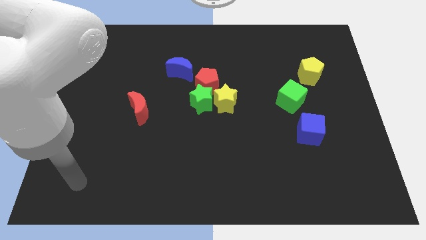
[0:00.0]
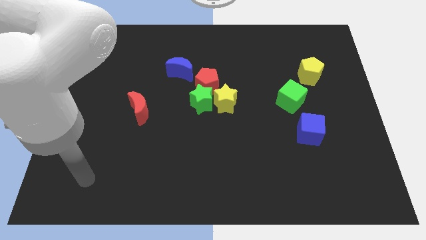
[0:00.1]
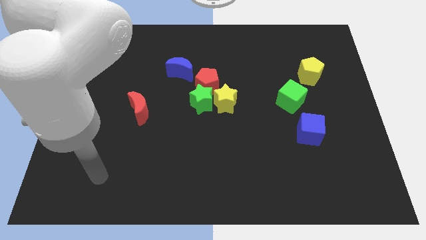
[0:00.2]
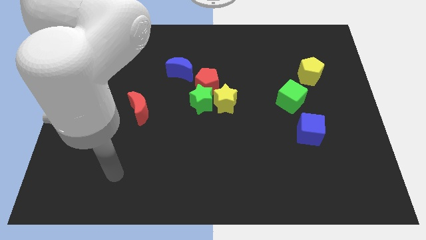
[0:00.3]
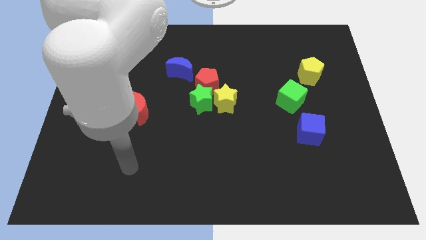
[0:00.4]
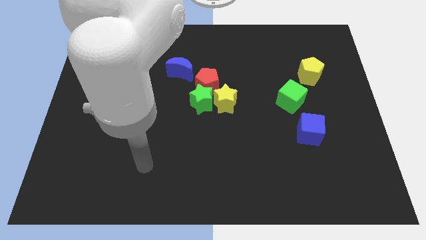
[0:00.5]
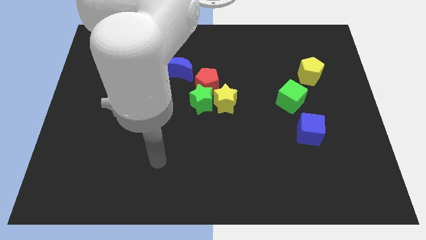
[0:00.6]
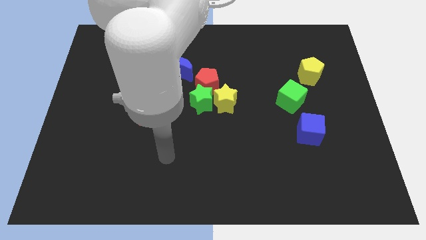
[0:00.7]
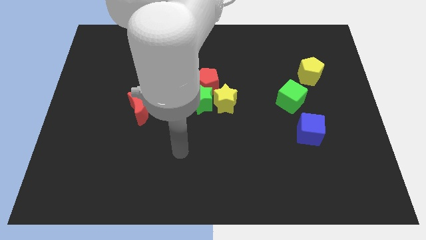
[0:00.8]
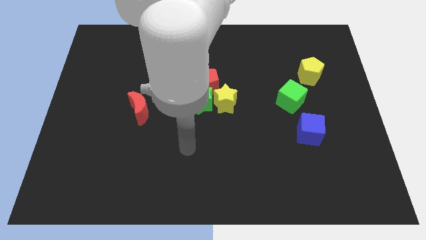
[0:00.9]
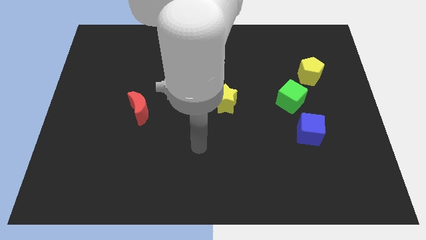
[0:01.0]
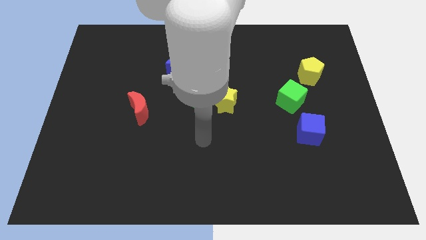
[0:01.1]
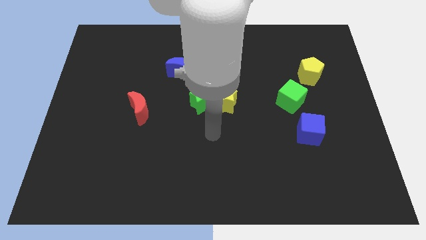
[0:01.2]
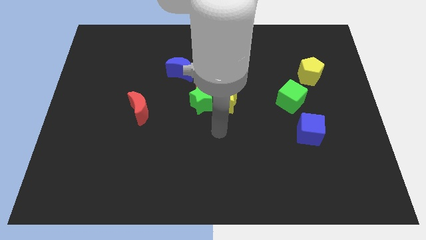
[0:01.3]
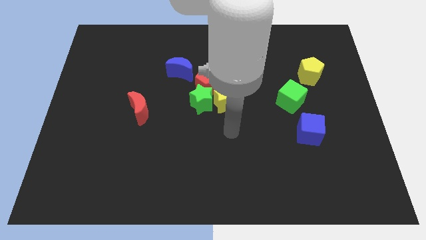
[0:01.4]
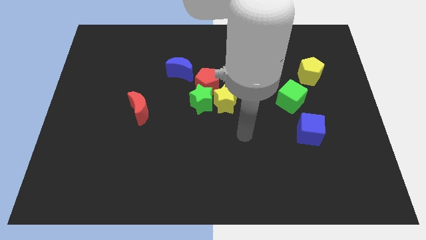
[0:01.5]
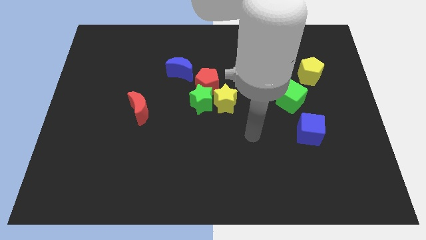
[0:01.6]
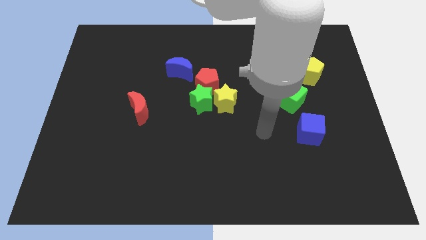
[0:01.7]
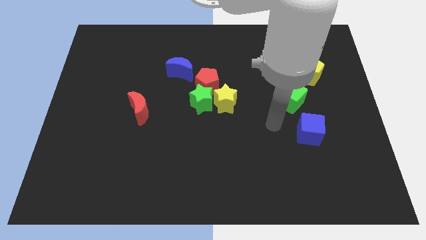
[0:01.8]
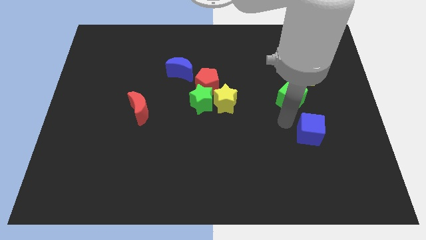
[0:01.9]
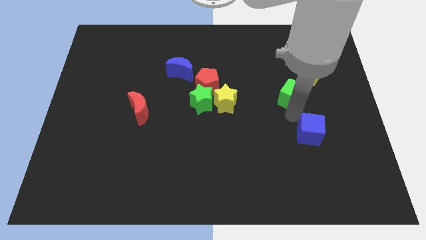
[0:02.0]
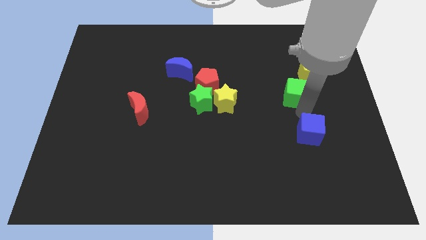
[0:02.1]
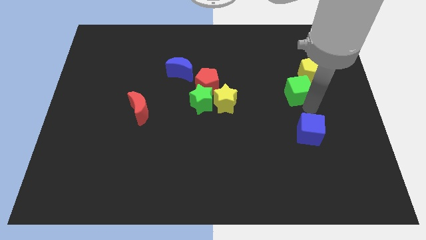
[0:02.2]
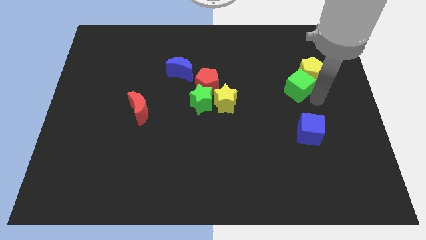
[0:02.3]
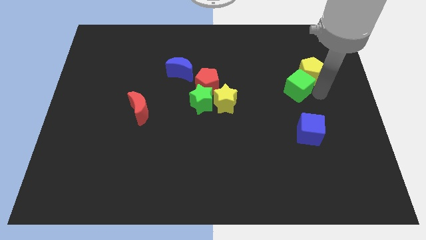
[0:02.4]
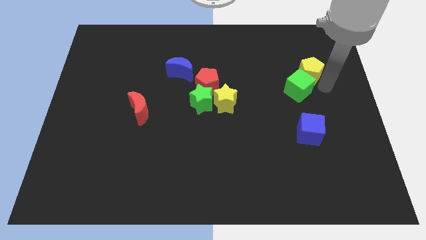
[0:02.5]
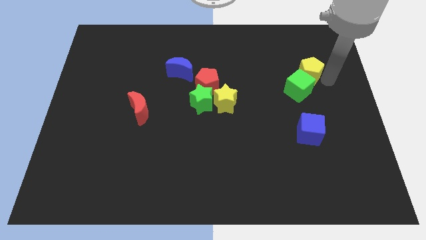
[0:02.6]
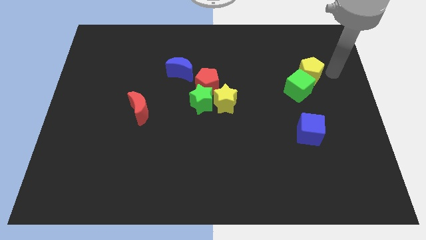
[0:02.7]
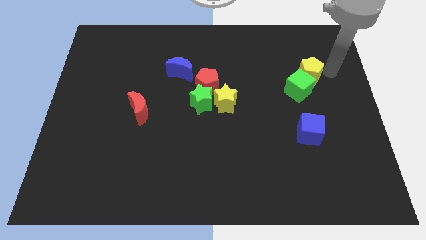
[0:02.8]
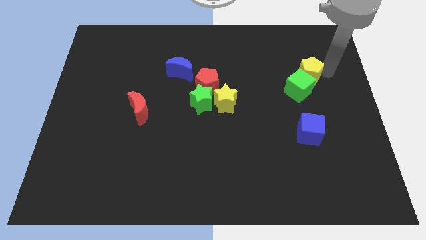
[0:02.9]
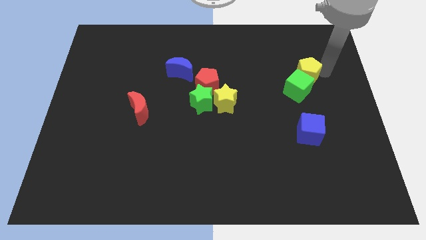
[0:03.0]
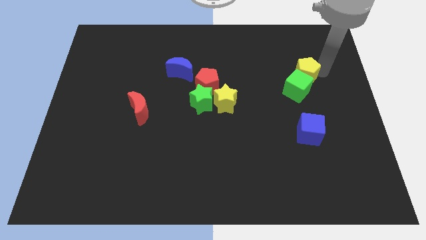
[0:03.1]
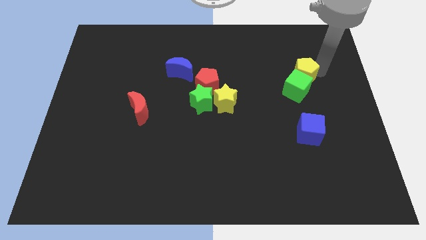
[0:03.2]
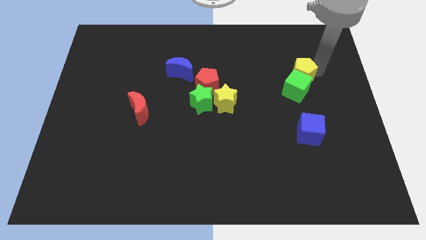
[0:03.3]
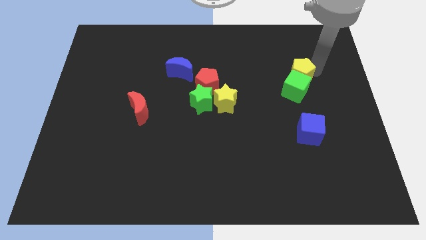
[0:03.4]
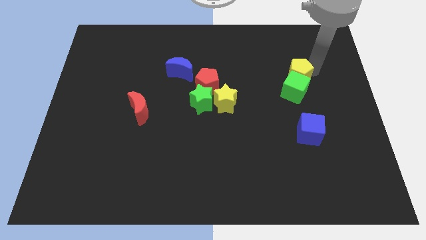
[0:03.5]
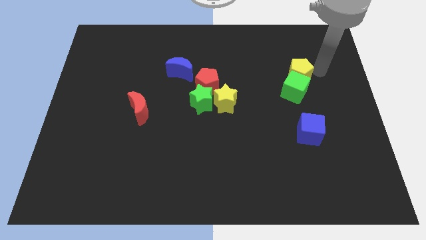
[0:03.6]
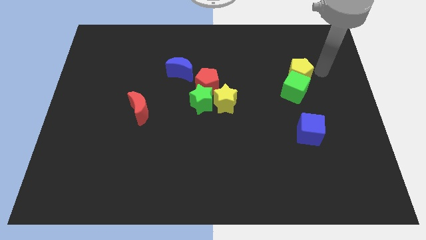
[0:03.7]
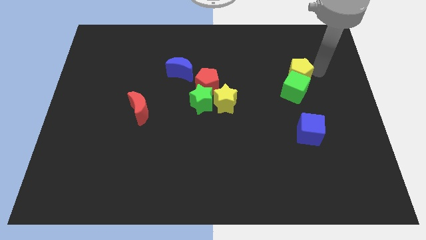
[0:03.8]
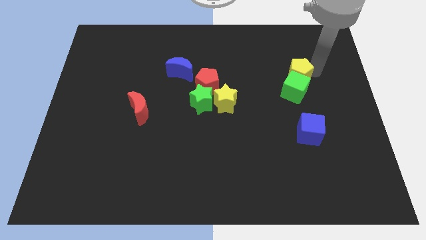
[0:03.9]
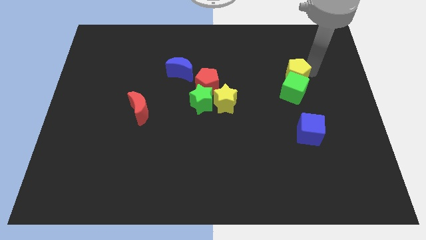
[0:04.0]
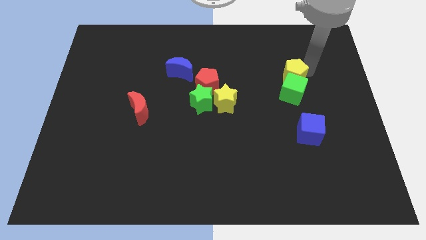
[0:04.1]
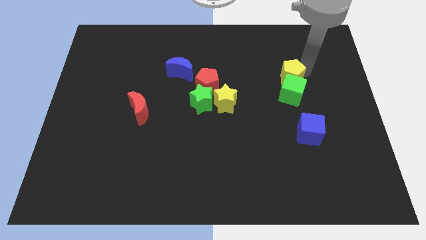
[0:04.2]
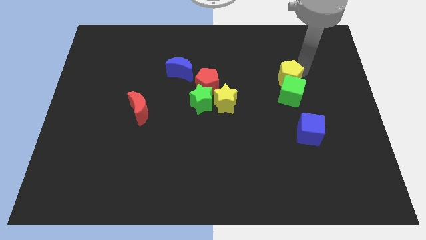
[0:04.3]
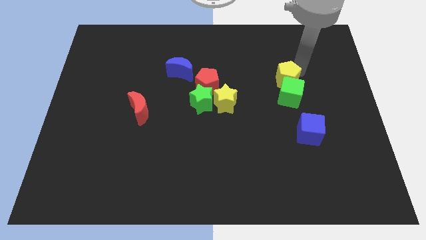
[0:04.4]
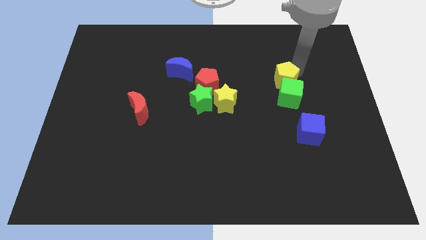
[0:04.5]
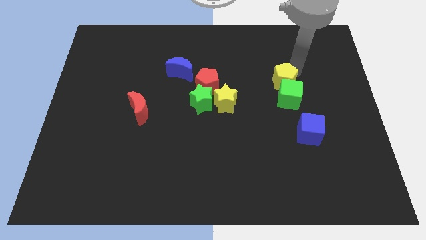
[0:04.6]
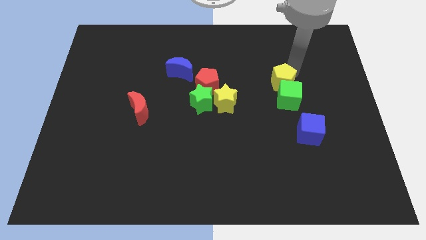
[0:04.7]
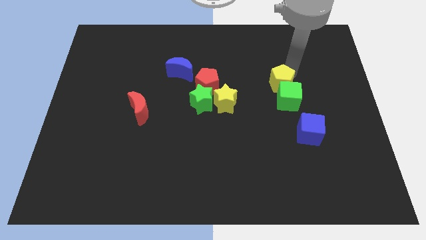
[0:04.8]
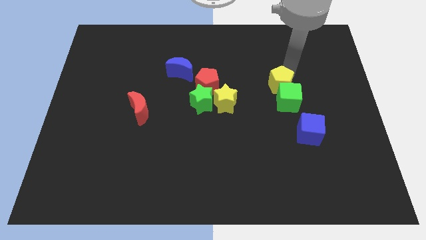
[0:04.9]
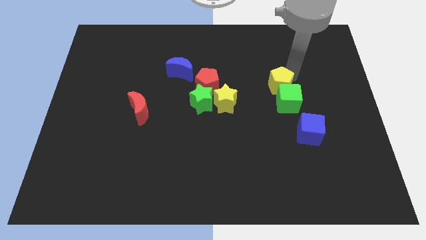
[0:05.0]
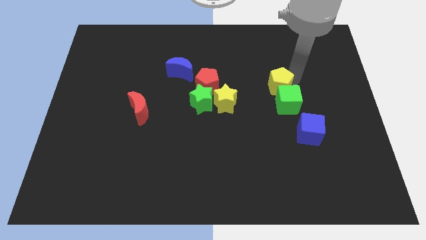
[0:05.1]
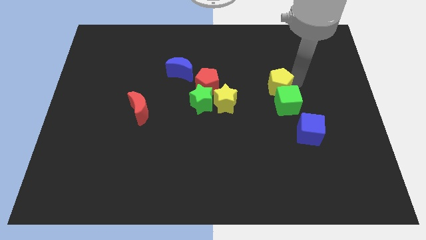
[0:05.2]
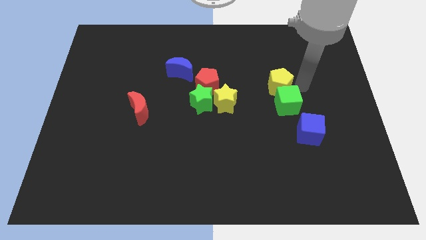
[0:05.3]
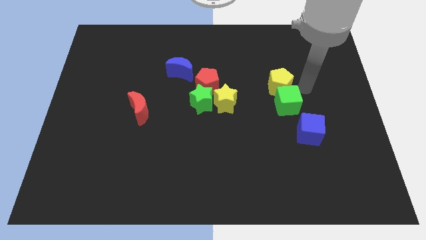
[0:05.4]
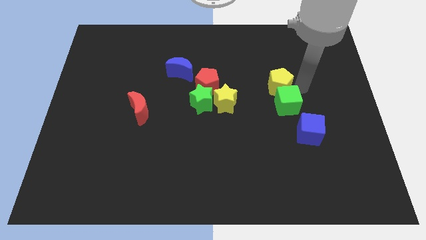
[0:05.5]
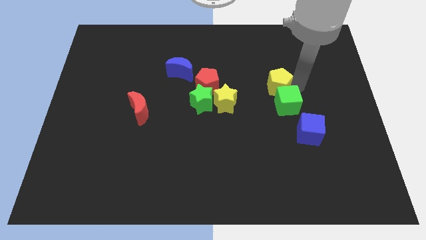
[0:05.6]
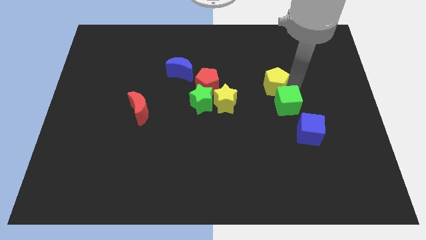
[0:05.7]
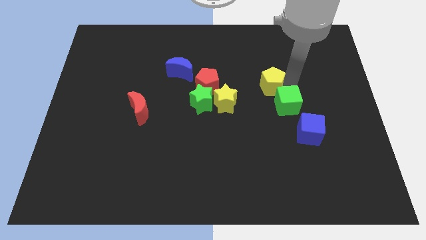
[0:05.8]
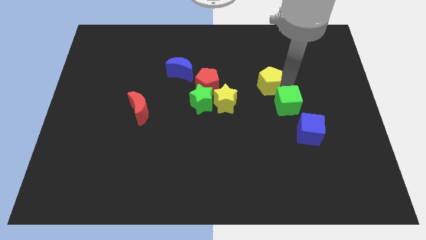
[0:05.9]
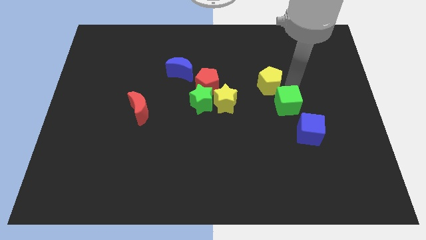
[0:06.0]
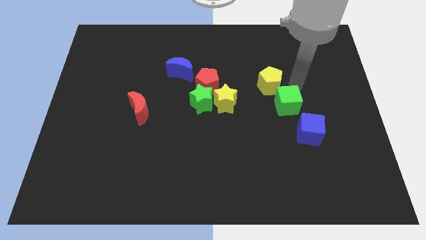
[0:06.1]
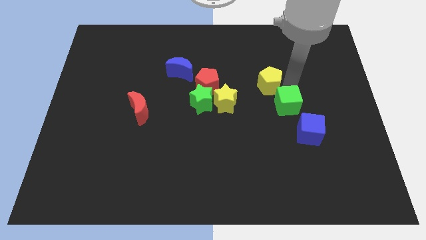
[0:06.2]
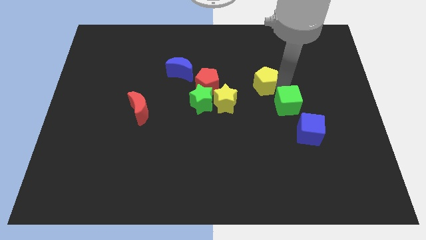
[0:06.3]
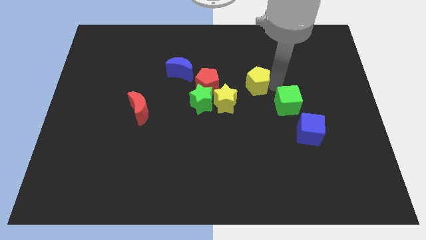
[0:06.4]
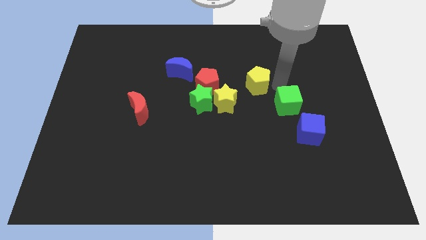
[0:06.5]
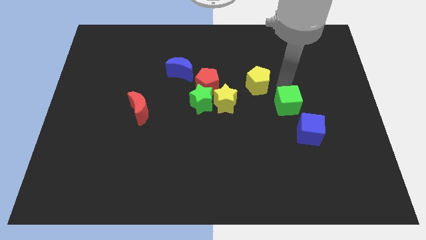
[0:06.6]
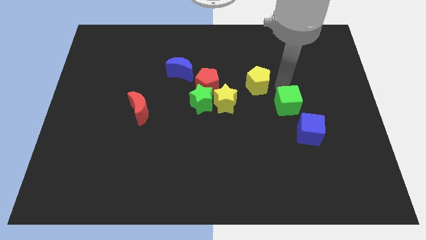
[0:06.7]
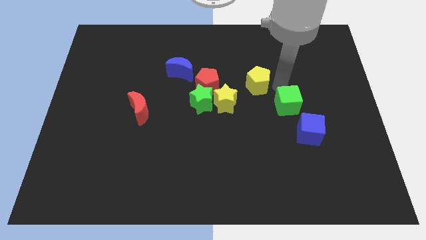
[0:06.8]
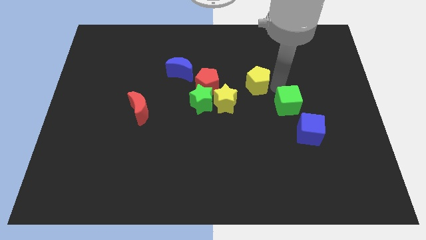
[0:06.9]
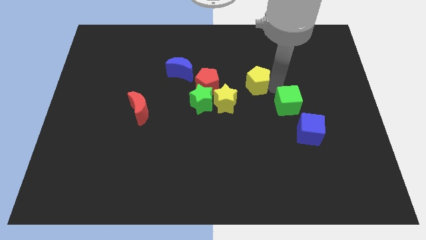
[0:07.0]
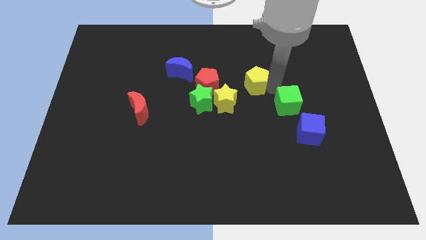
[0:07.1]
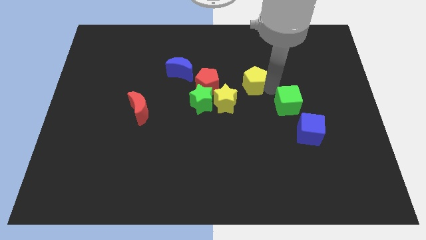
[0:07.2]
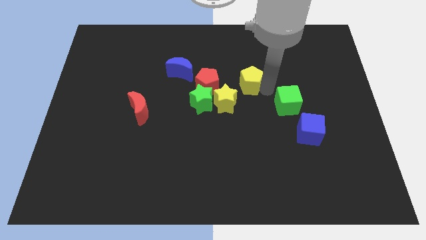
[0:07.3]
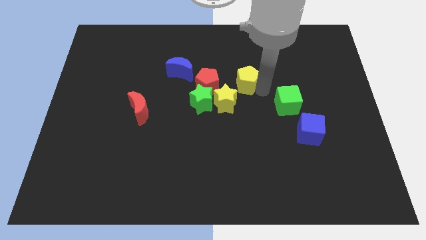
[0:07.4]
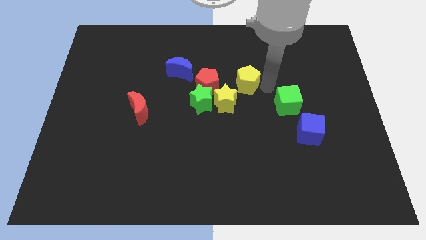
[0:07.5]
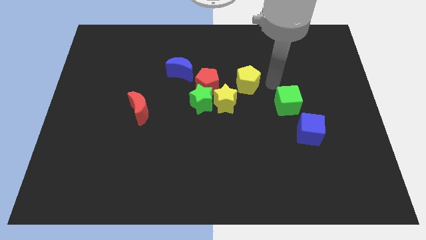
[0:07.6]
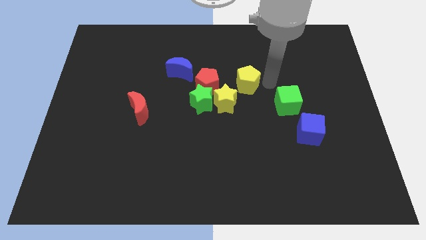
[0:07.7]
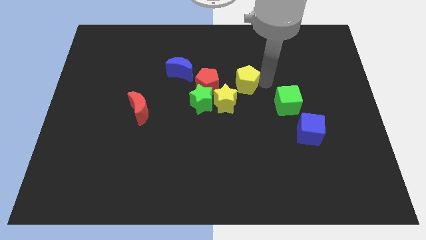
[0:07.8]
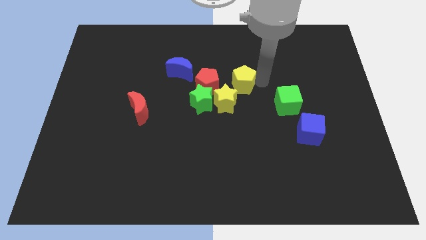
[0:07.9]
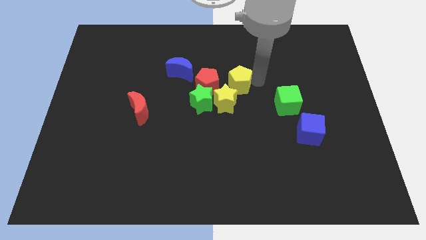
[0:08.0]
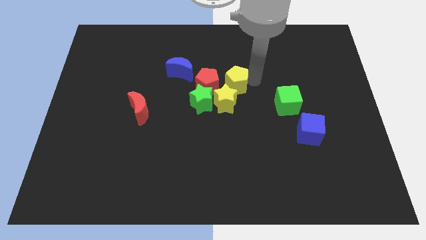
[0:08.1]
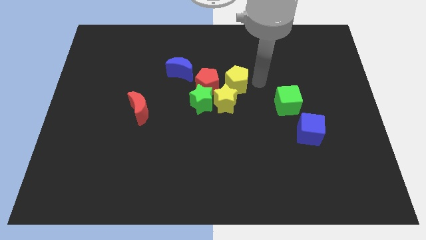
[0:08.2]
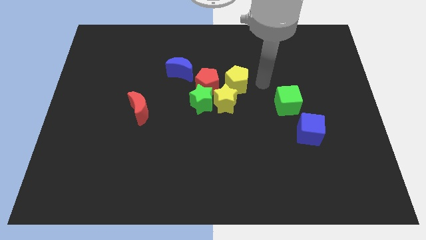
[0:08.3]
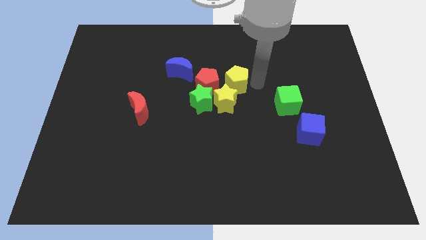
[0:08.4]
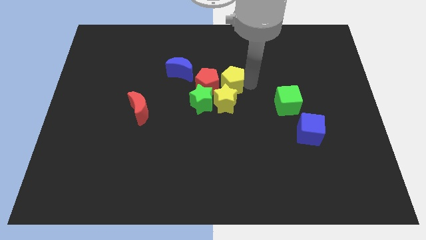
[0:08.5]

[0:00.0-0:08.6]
move the yellow pentagon next to the red pentagon
